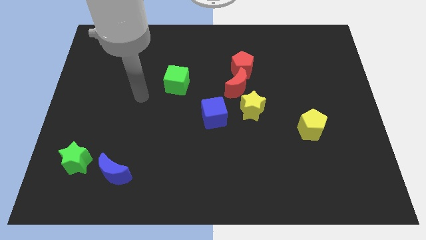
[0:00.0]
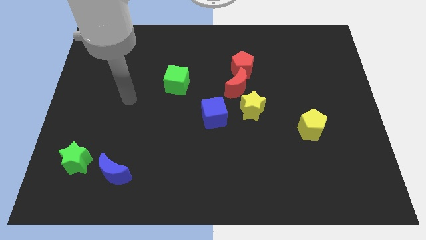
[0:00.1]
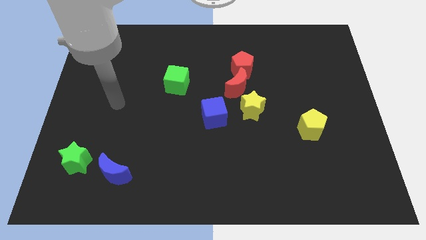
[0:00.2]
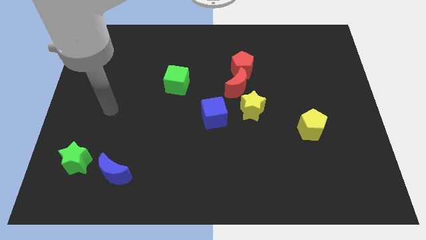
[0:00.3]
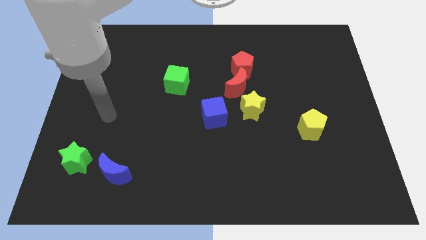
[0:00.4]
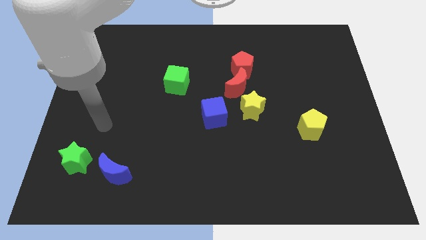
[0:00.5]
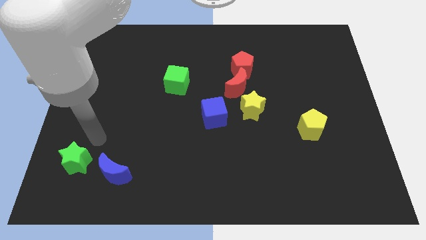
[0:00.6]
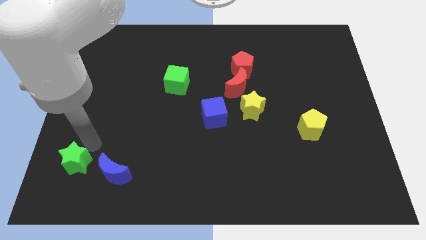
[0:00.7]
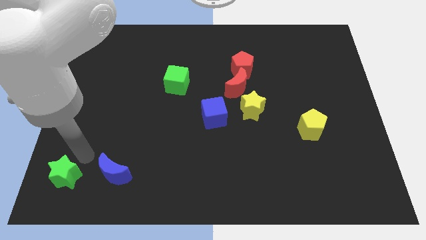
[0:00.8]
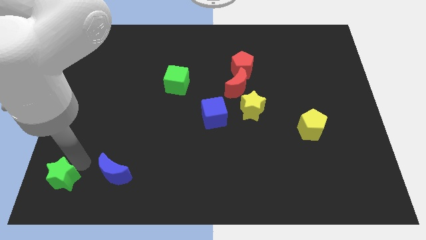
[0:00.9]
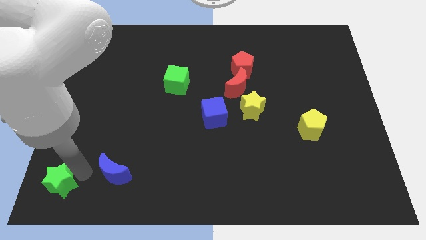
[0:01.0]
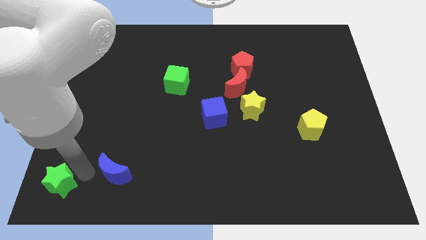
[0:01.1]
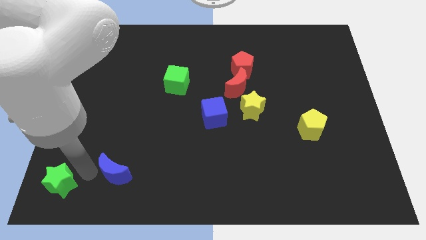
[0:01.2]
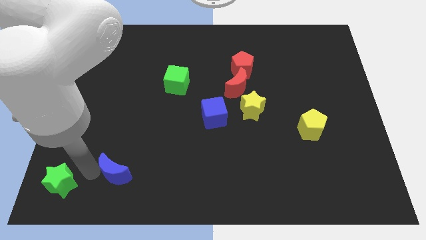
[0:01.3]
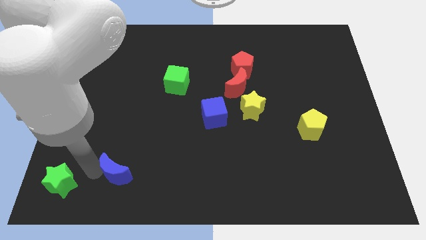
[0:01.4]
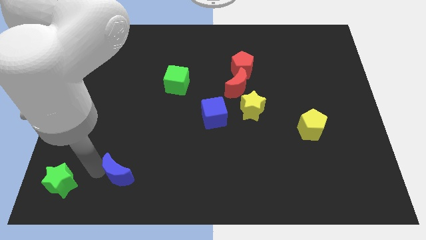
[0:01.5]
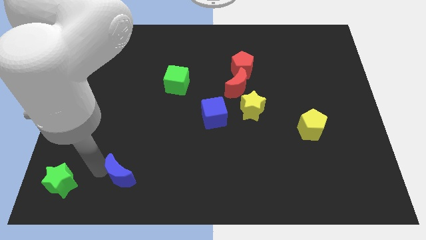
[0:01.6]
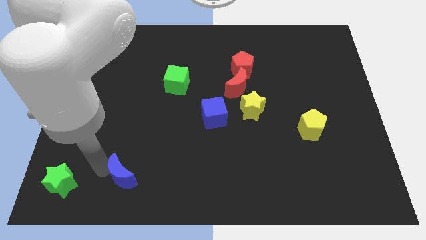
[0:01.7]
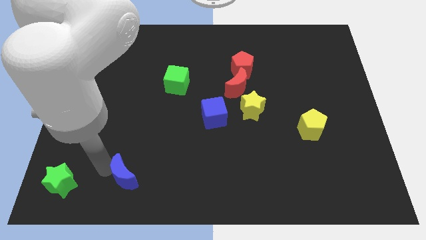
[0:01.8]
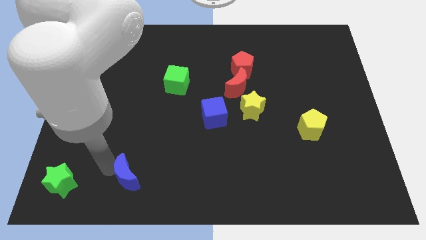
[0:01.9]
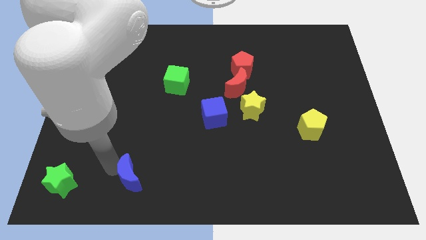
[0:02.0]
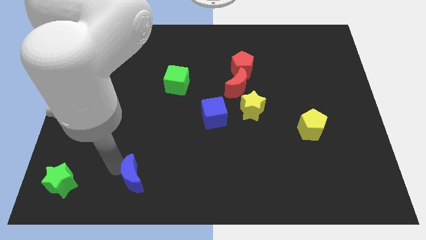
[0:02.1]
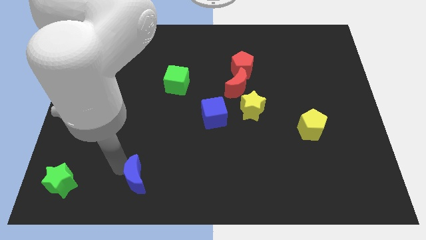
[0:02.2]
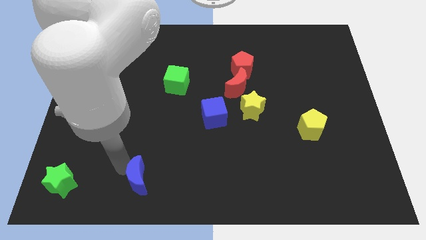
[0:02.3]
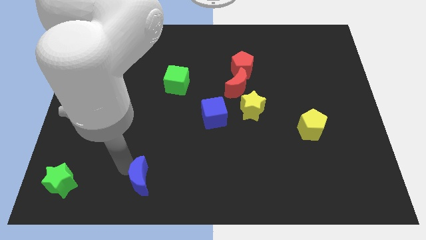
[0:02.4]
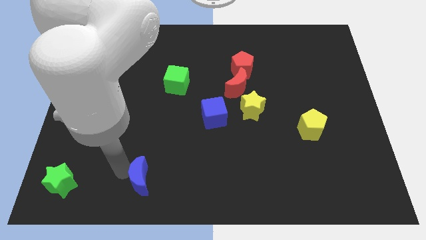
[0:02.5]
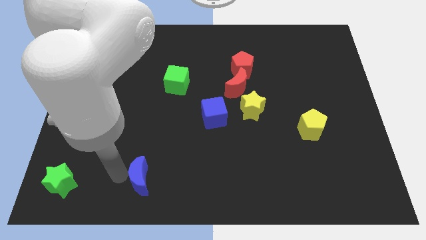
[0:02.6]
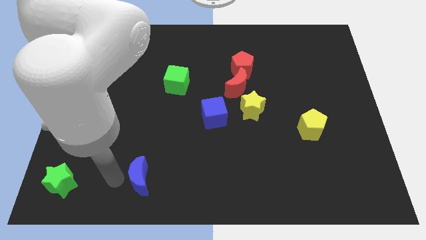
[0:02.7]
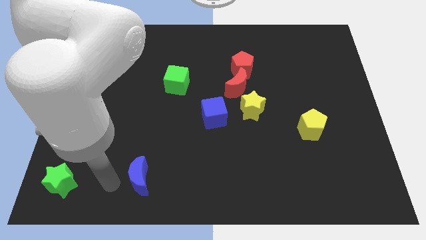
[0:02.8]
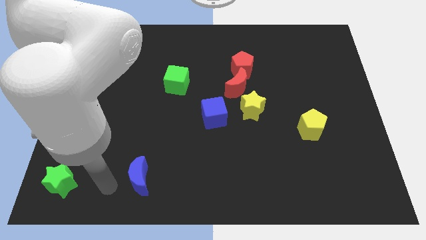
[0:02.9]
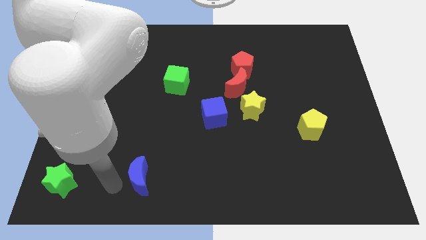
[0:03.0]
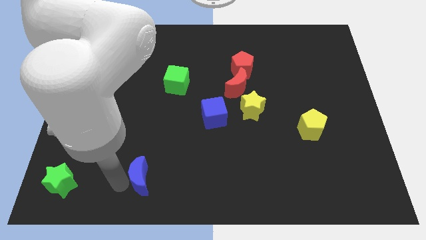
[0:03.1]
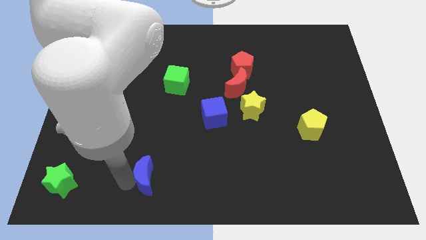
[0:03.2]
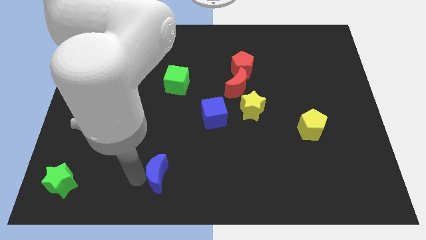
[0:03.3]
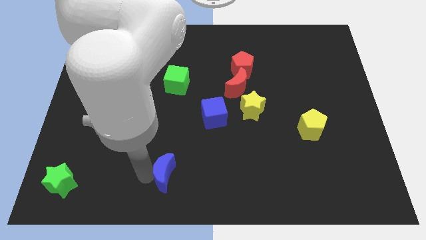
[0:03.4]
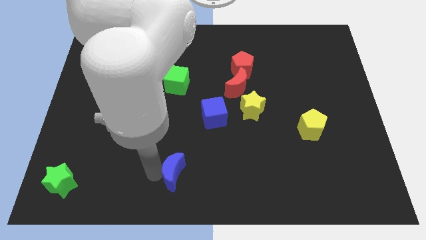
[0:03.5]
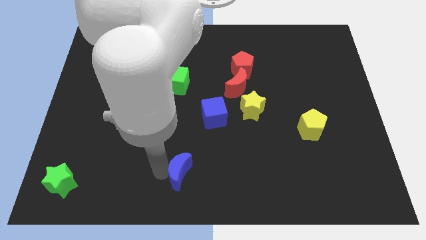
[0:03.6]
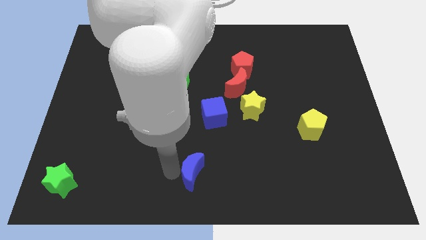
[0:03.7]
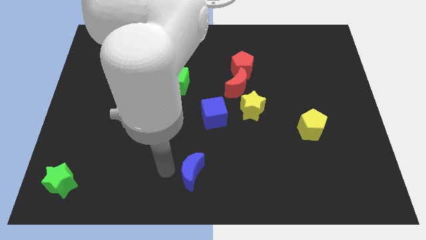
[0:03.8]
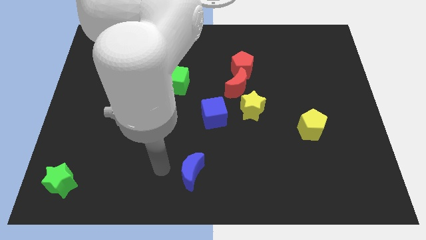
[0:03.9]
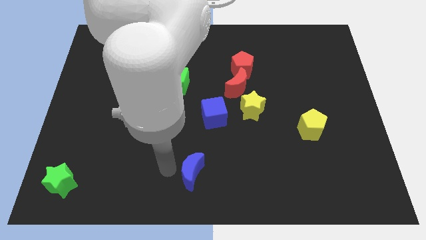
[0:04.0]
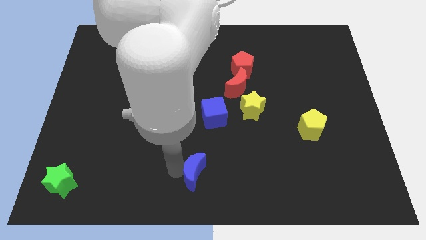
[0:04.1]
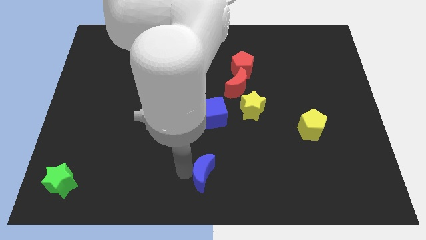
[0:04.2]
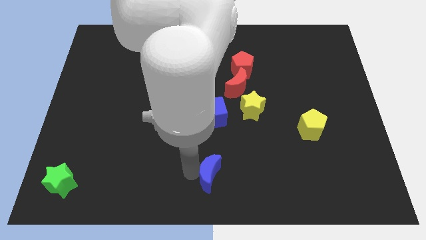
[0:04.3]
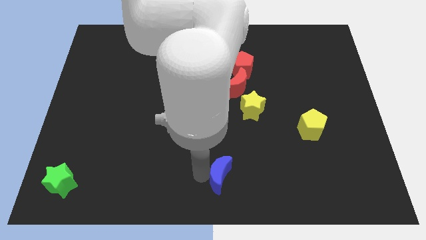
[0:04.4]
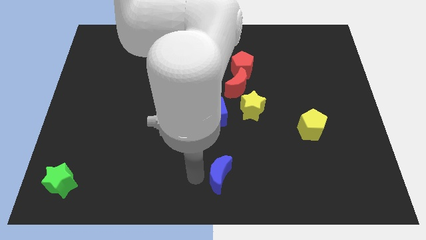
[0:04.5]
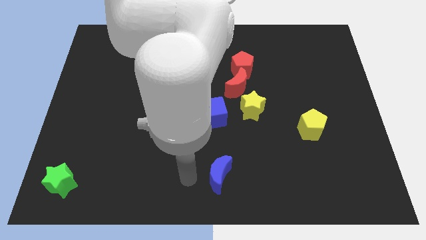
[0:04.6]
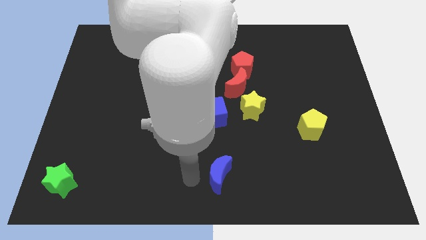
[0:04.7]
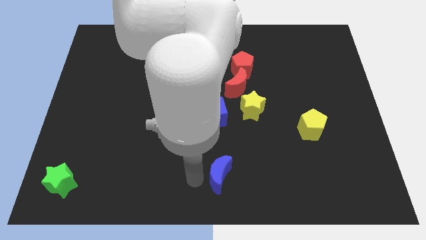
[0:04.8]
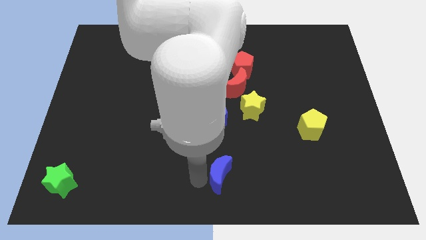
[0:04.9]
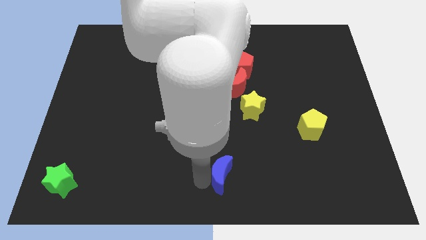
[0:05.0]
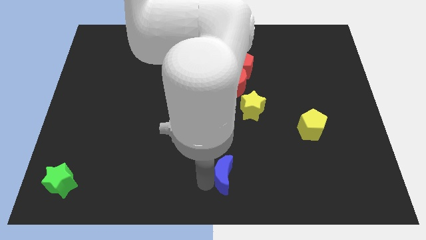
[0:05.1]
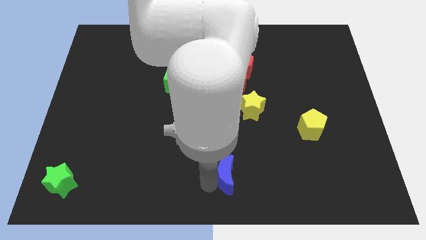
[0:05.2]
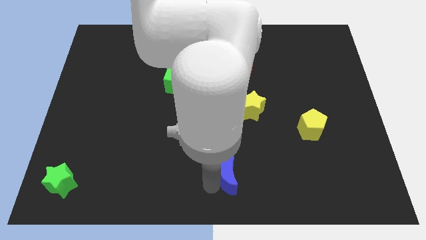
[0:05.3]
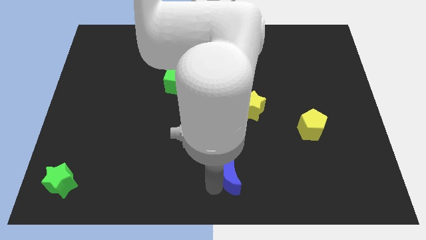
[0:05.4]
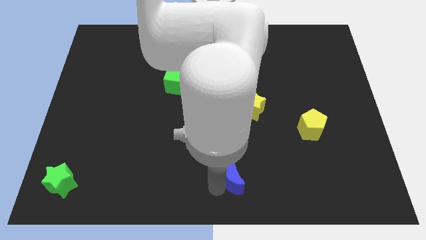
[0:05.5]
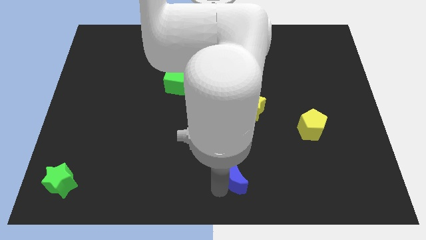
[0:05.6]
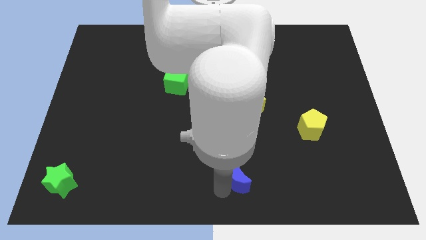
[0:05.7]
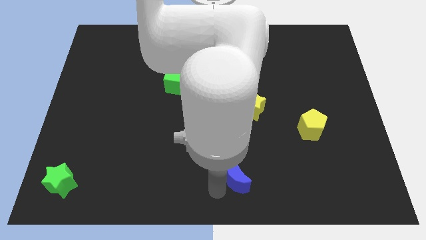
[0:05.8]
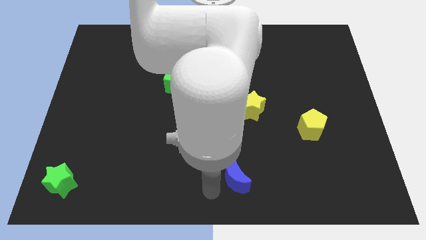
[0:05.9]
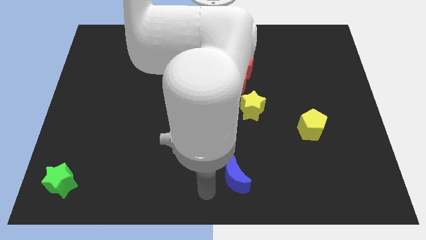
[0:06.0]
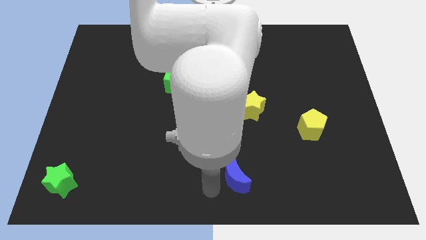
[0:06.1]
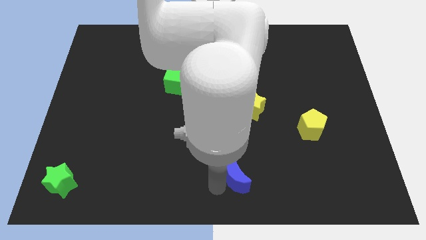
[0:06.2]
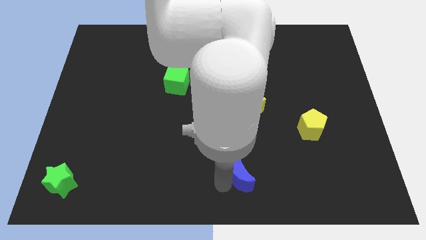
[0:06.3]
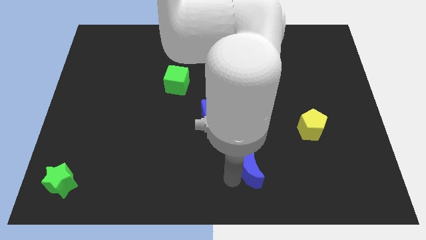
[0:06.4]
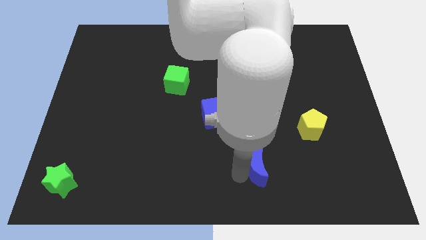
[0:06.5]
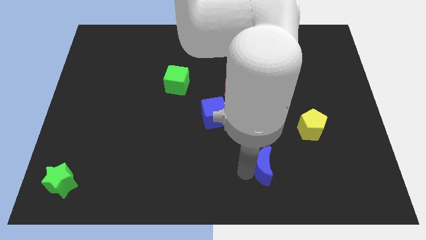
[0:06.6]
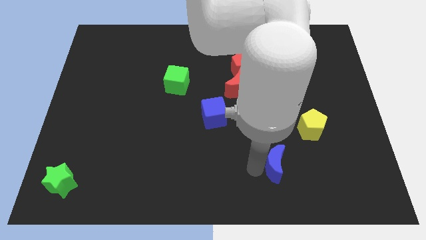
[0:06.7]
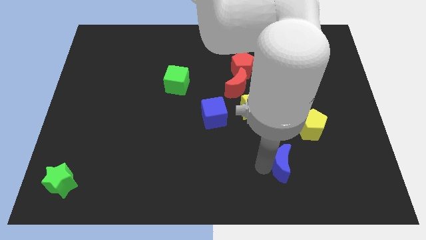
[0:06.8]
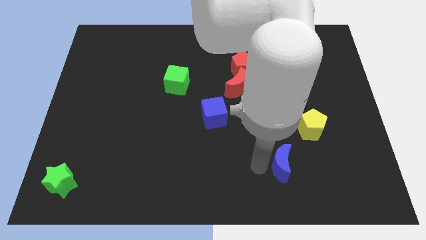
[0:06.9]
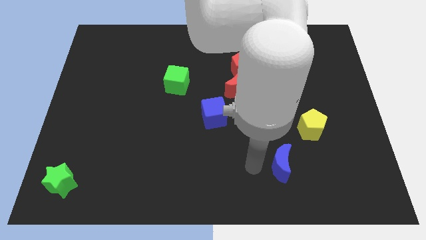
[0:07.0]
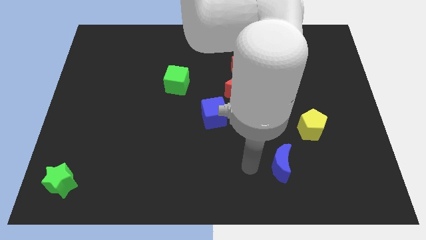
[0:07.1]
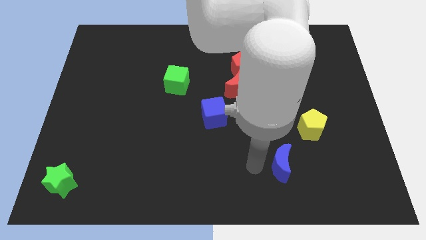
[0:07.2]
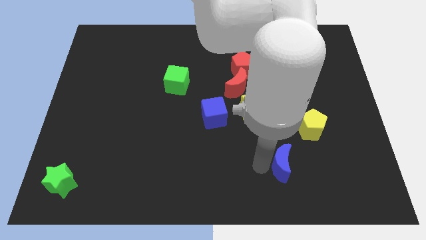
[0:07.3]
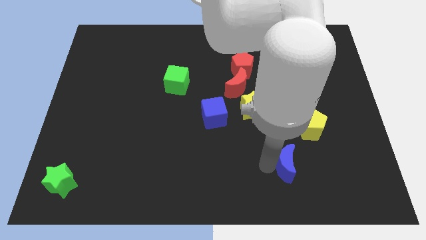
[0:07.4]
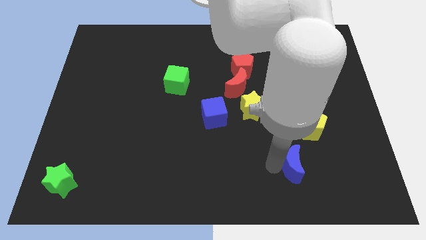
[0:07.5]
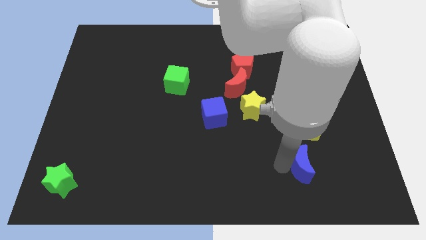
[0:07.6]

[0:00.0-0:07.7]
move the blue moon below the yellow pentagon
